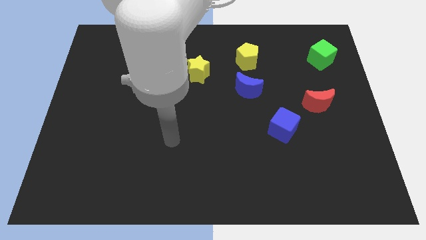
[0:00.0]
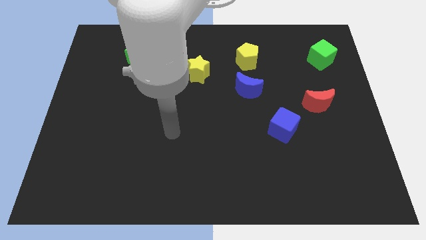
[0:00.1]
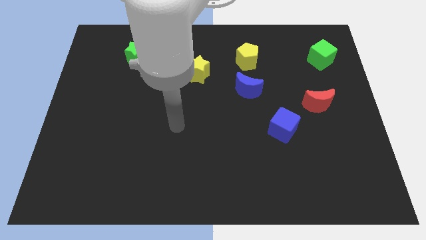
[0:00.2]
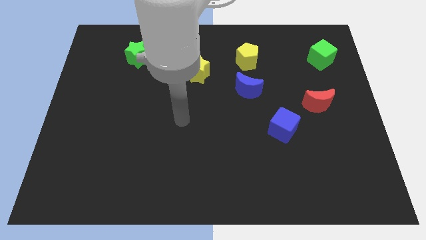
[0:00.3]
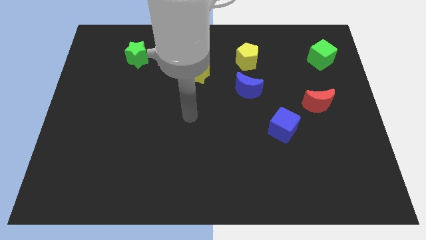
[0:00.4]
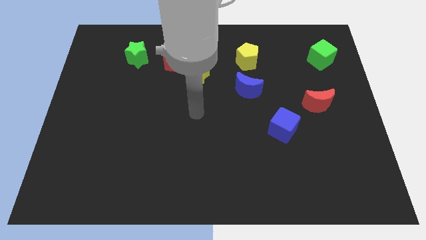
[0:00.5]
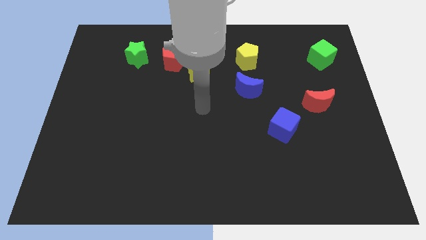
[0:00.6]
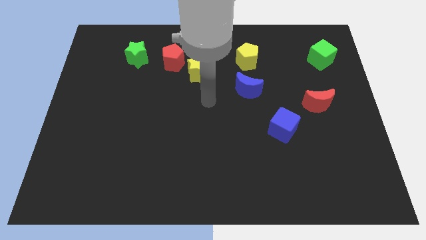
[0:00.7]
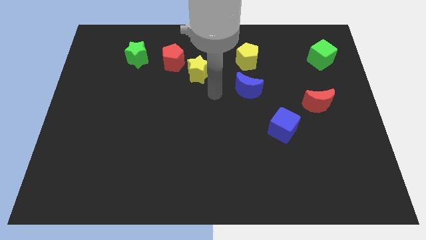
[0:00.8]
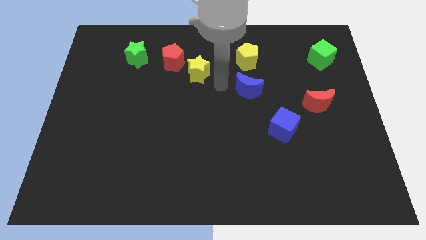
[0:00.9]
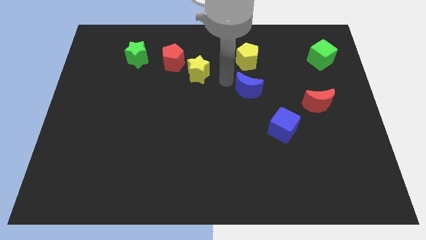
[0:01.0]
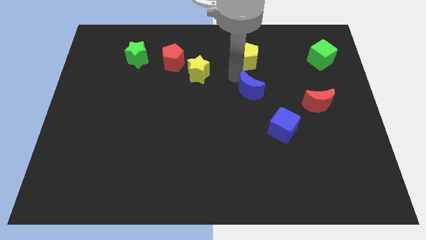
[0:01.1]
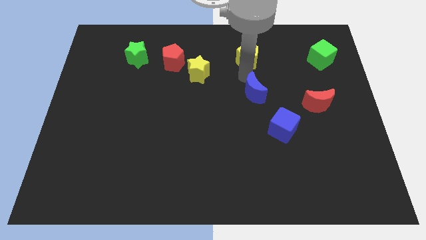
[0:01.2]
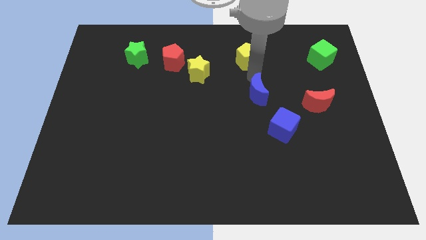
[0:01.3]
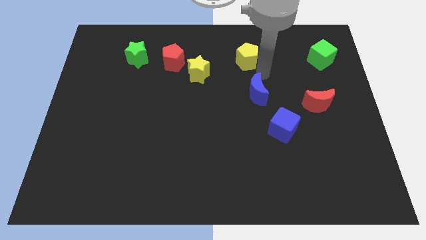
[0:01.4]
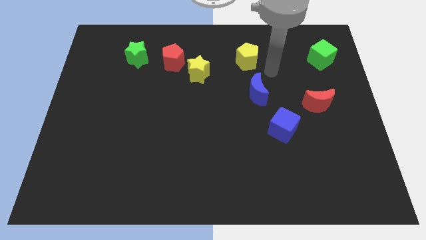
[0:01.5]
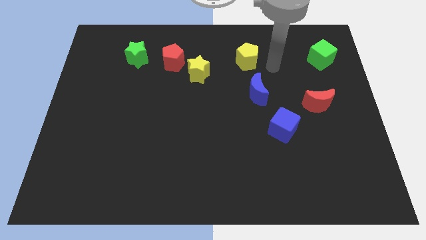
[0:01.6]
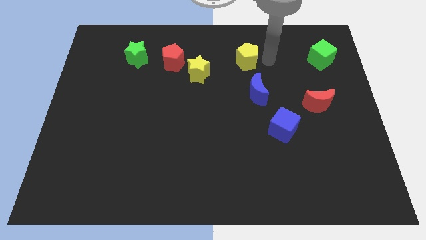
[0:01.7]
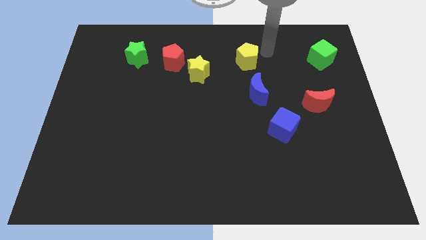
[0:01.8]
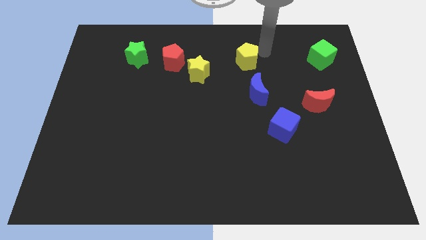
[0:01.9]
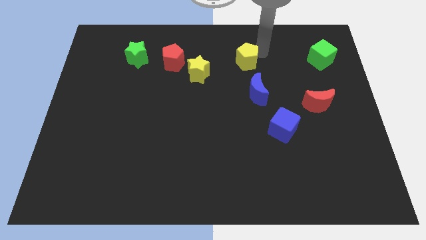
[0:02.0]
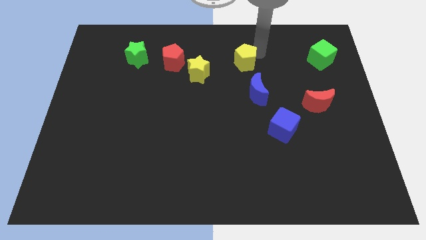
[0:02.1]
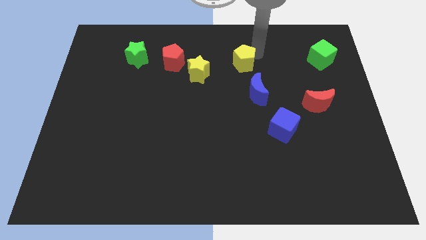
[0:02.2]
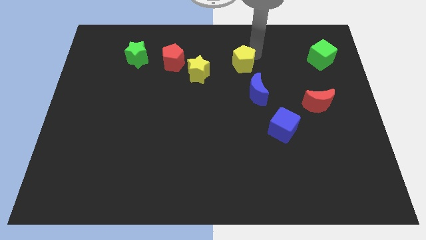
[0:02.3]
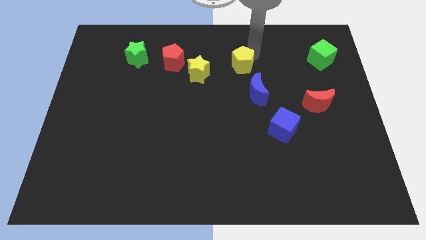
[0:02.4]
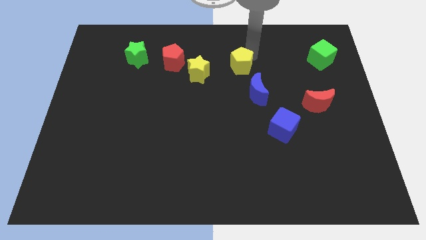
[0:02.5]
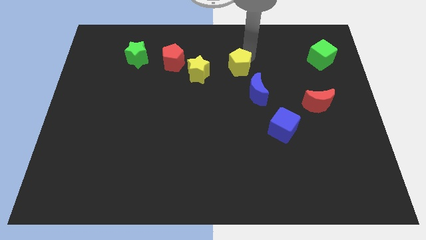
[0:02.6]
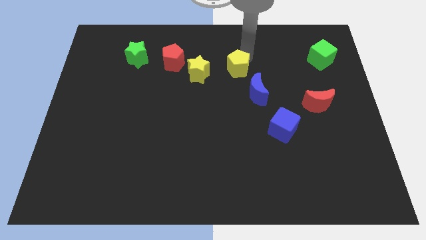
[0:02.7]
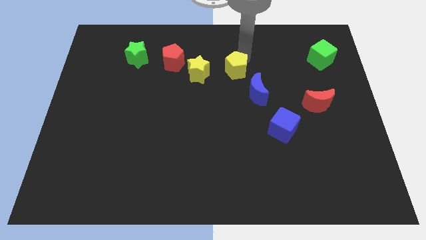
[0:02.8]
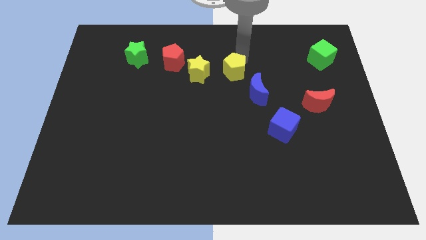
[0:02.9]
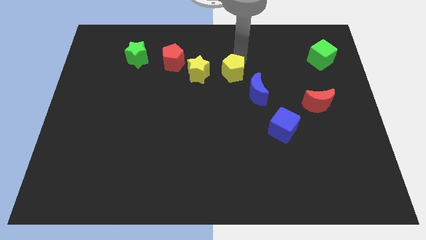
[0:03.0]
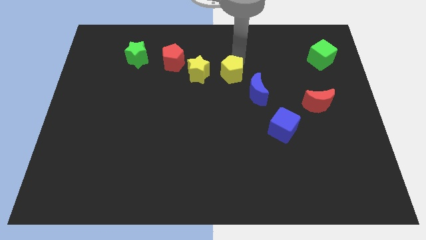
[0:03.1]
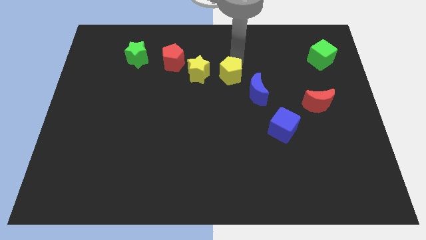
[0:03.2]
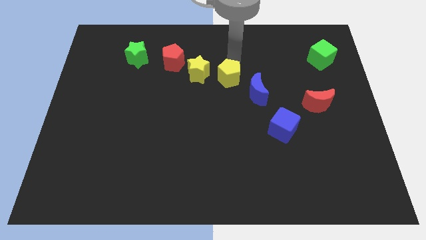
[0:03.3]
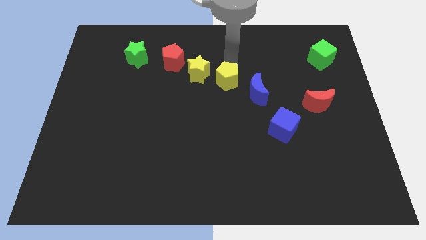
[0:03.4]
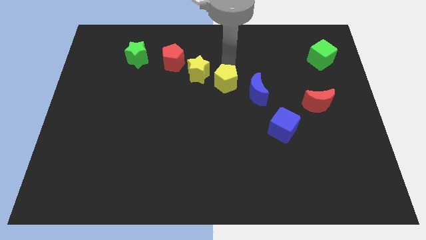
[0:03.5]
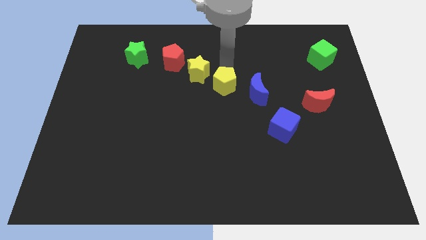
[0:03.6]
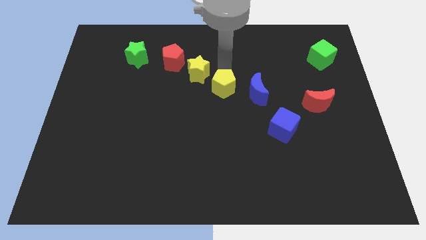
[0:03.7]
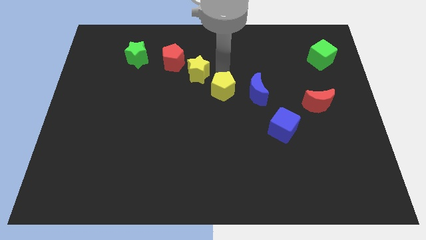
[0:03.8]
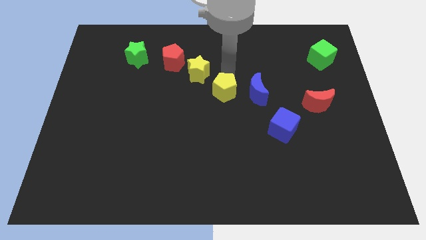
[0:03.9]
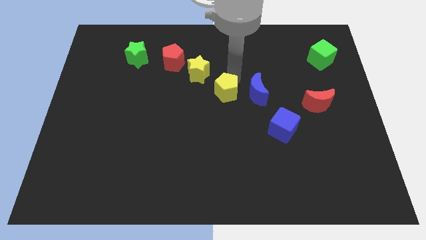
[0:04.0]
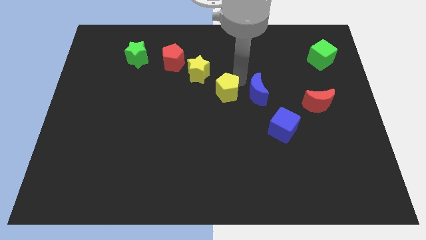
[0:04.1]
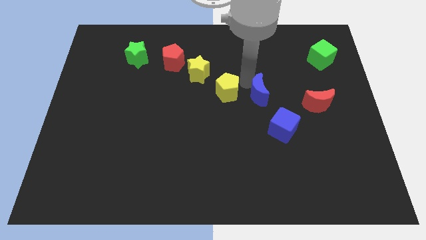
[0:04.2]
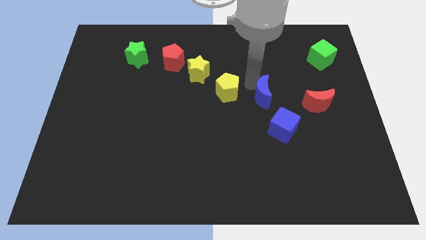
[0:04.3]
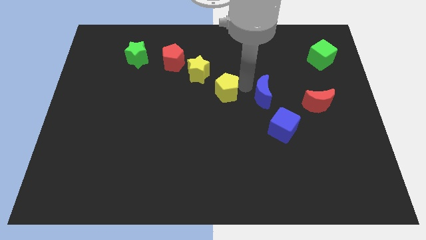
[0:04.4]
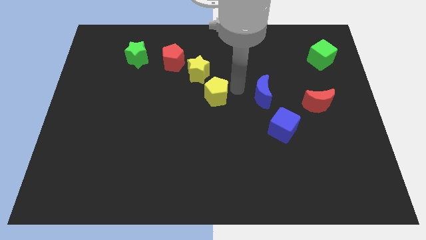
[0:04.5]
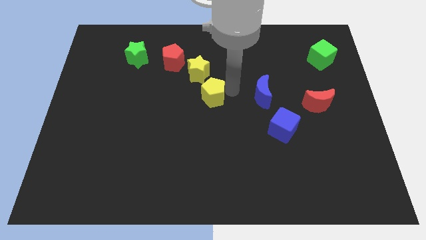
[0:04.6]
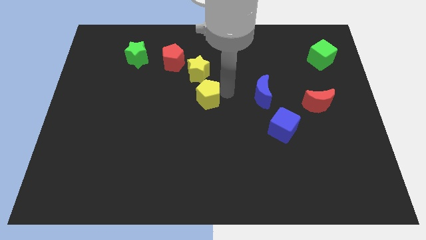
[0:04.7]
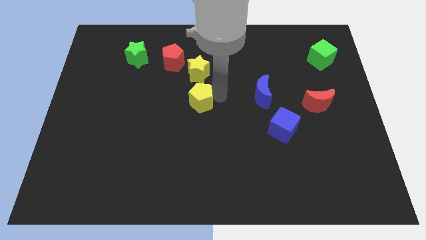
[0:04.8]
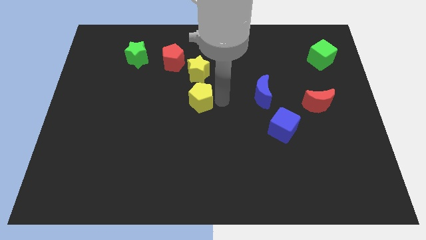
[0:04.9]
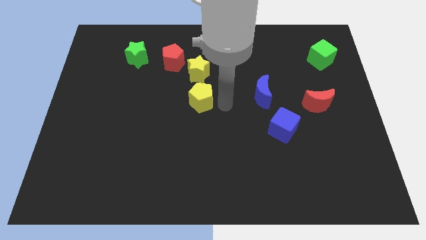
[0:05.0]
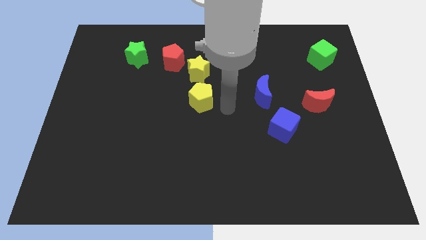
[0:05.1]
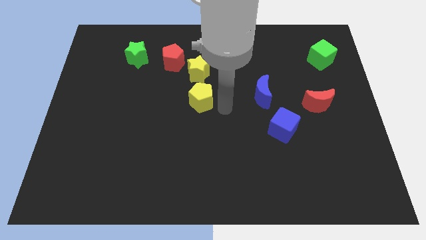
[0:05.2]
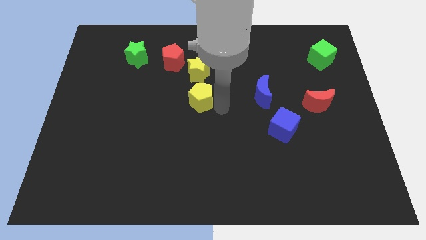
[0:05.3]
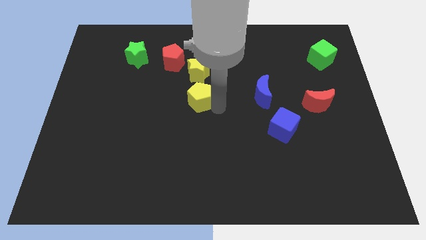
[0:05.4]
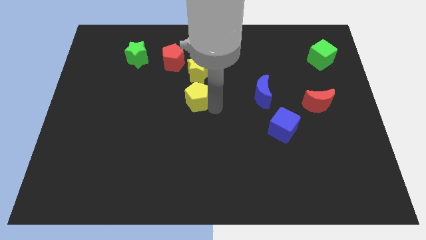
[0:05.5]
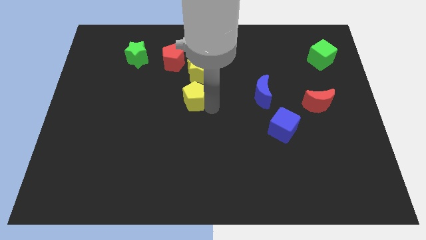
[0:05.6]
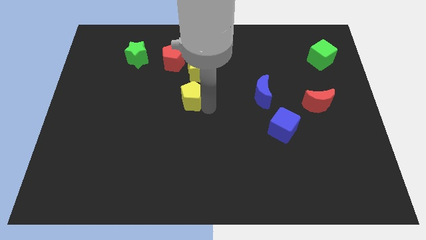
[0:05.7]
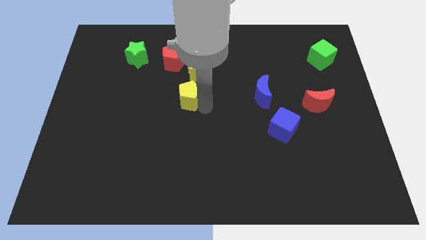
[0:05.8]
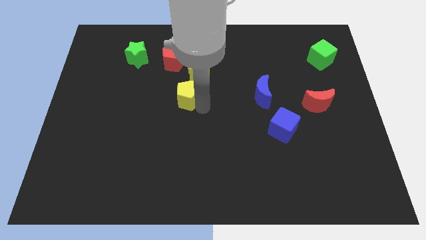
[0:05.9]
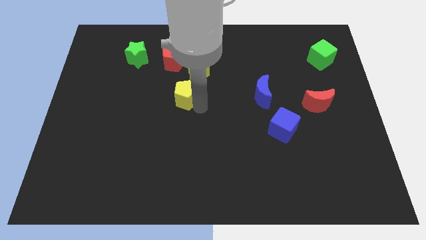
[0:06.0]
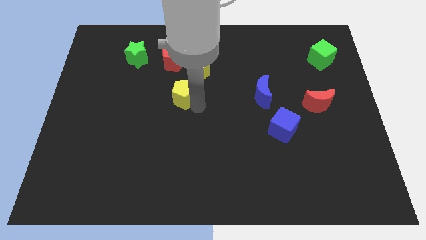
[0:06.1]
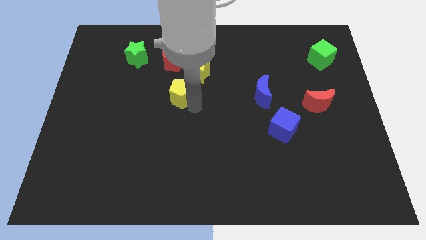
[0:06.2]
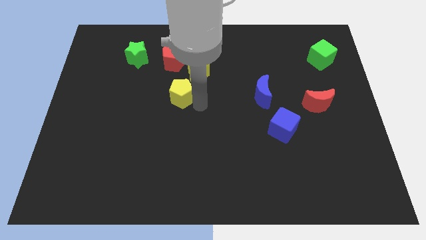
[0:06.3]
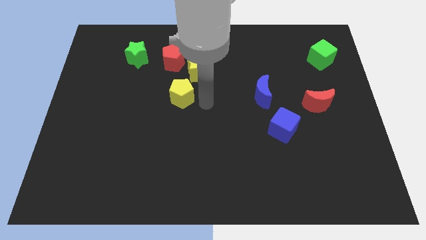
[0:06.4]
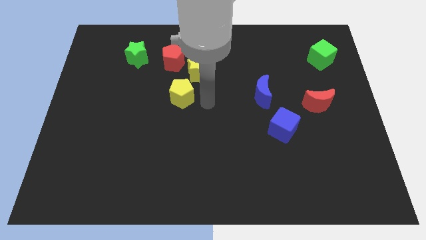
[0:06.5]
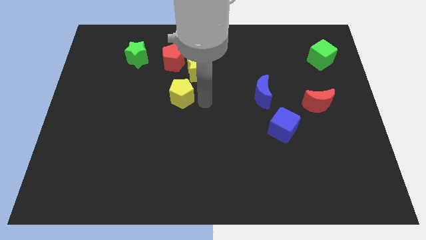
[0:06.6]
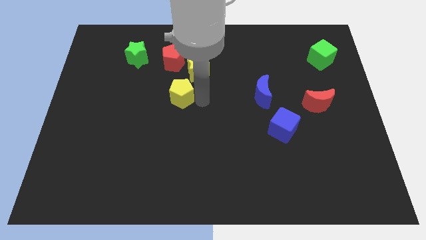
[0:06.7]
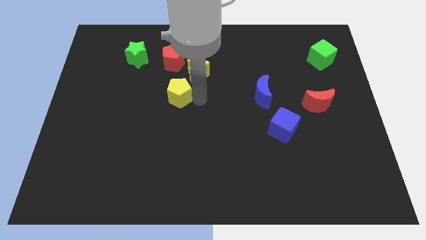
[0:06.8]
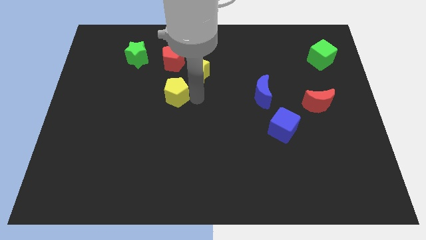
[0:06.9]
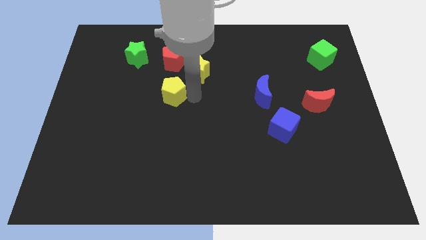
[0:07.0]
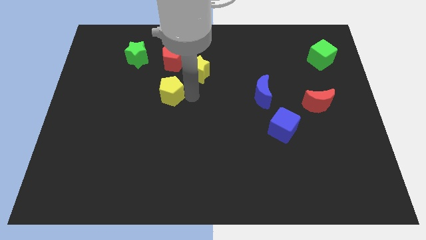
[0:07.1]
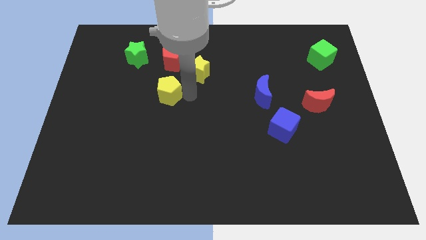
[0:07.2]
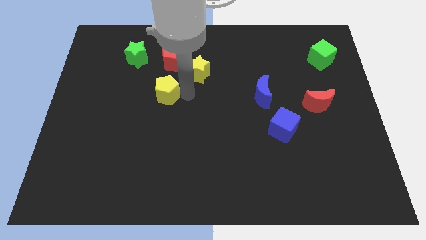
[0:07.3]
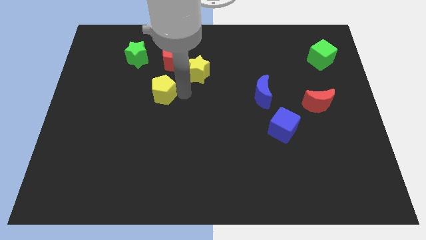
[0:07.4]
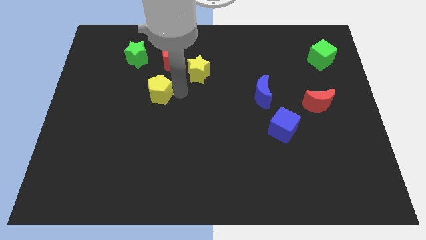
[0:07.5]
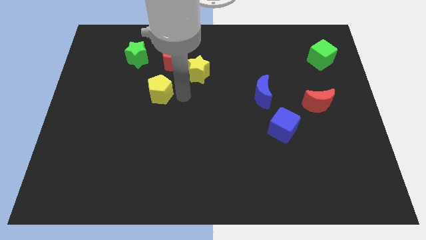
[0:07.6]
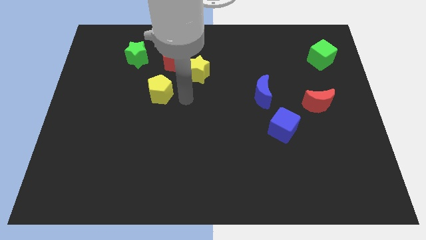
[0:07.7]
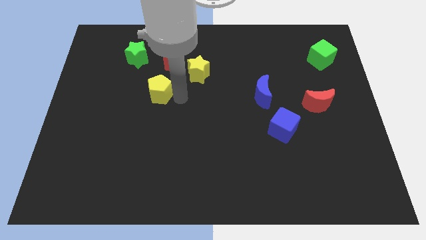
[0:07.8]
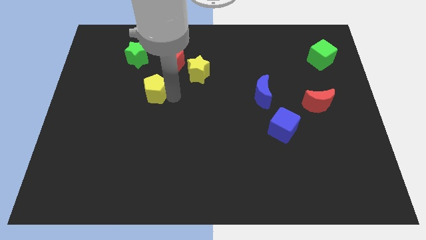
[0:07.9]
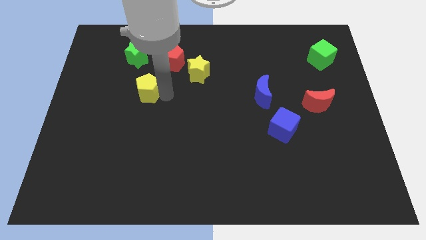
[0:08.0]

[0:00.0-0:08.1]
slide the yellow pentagon below the green star
